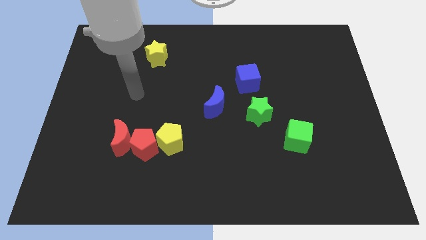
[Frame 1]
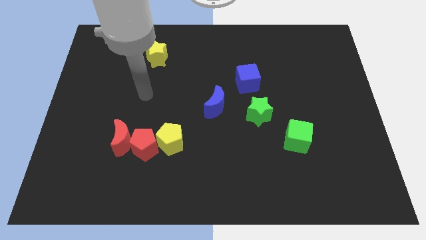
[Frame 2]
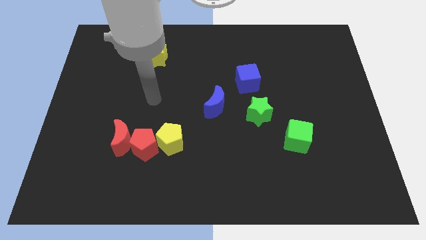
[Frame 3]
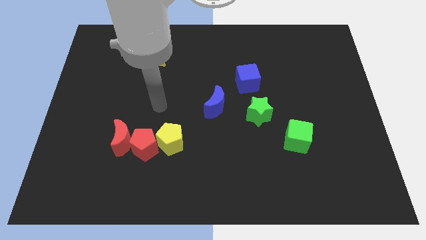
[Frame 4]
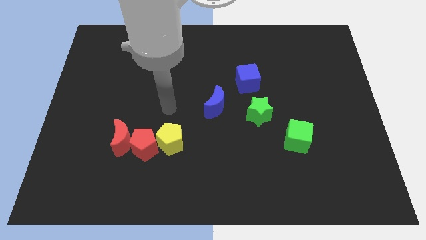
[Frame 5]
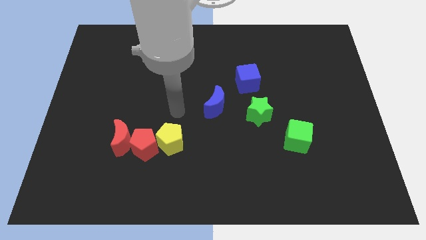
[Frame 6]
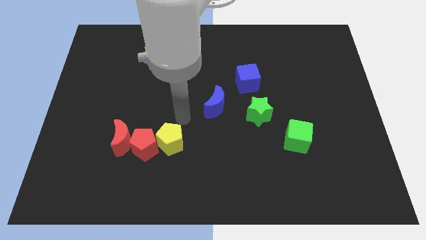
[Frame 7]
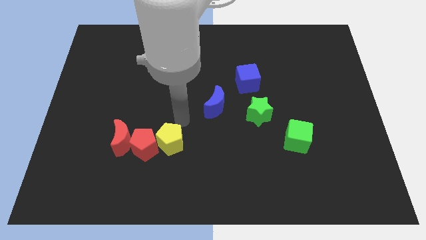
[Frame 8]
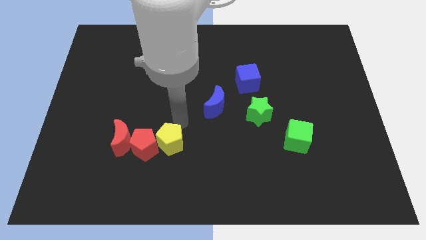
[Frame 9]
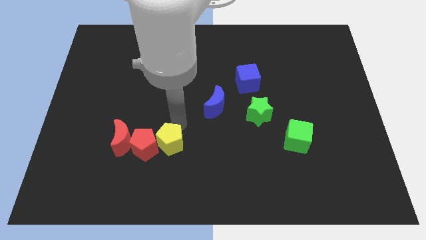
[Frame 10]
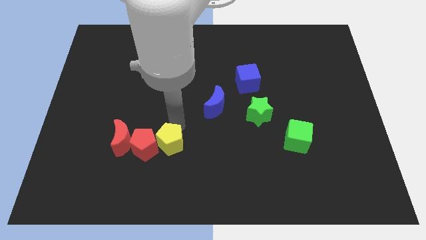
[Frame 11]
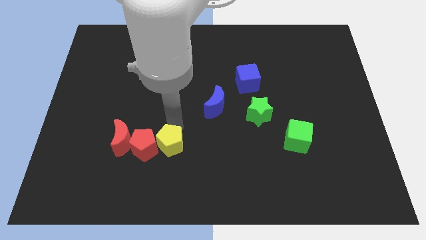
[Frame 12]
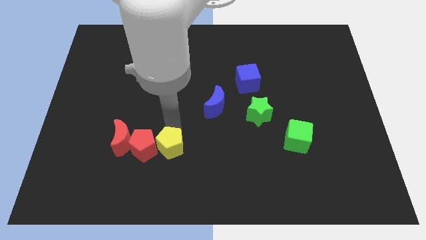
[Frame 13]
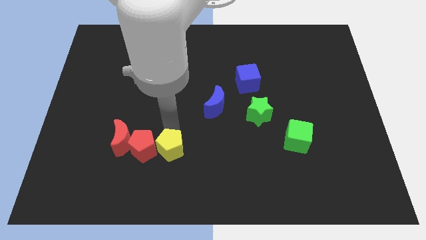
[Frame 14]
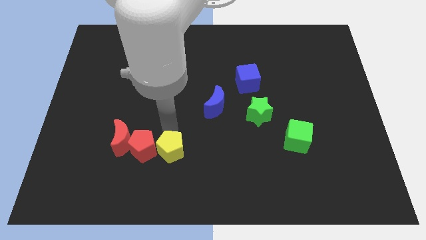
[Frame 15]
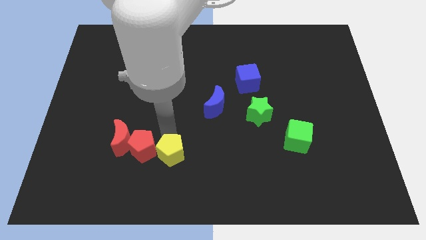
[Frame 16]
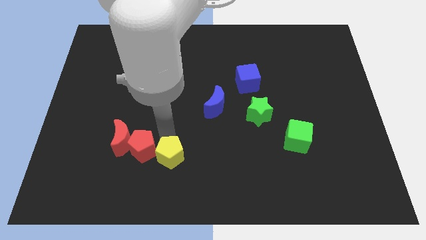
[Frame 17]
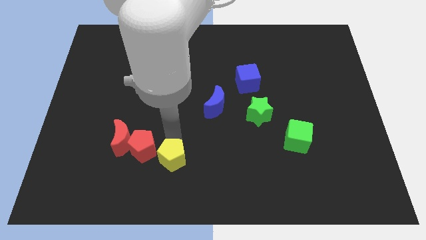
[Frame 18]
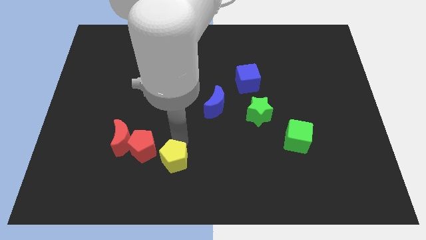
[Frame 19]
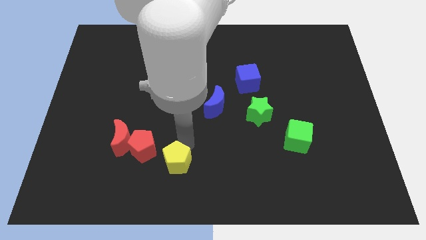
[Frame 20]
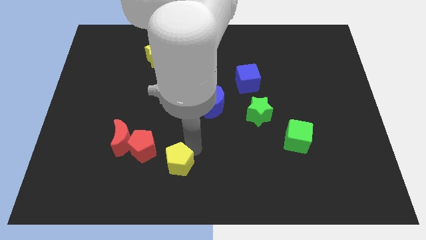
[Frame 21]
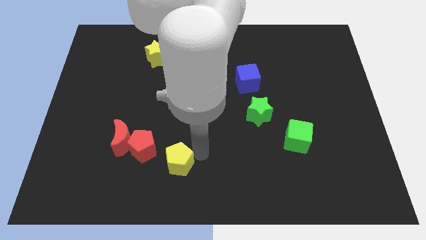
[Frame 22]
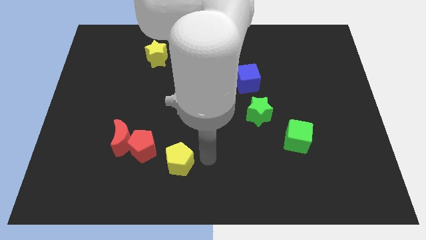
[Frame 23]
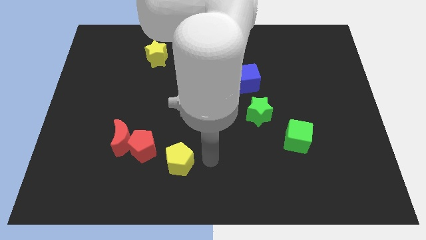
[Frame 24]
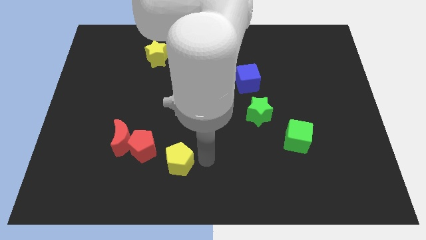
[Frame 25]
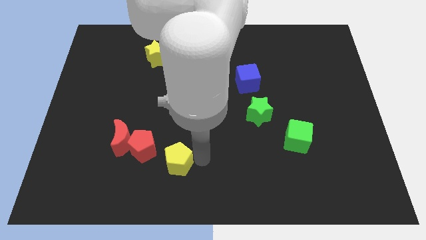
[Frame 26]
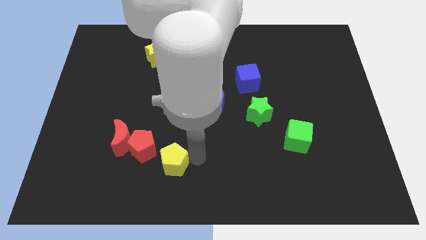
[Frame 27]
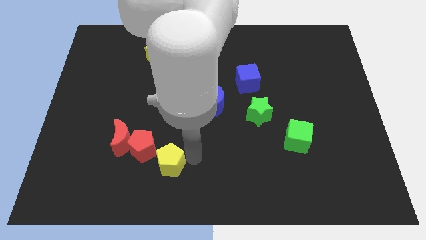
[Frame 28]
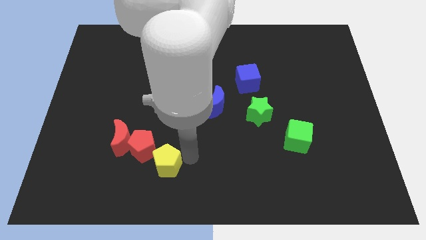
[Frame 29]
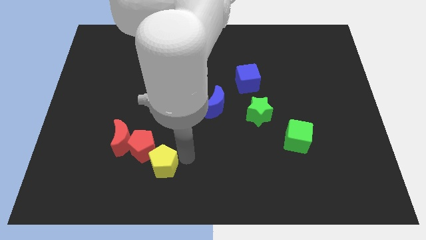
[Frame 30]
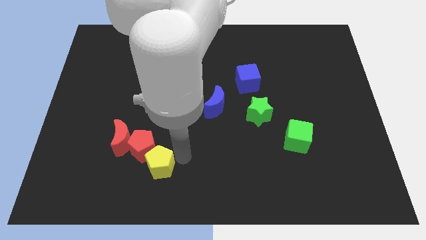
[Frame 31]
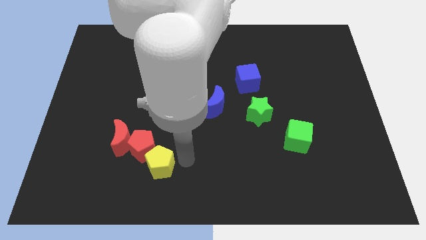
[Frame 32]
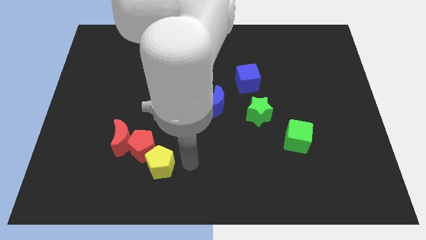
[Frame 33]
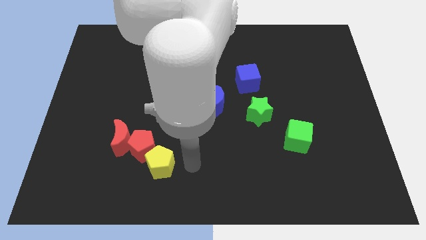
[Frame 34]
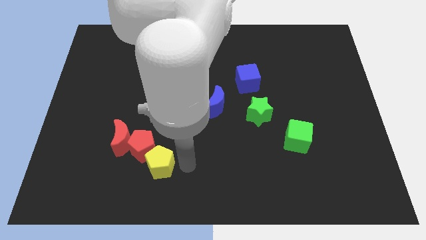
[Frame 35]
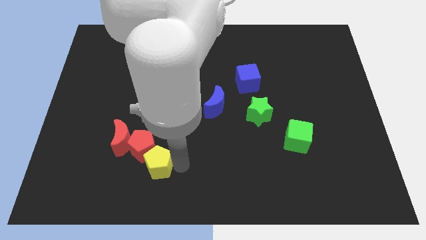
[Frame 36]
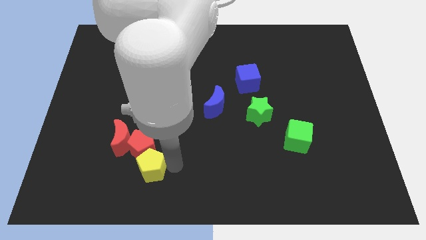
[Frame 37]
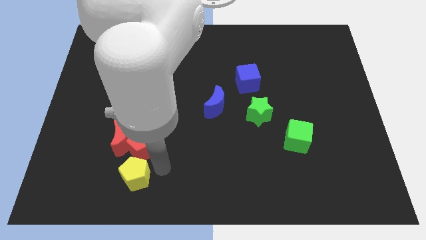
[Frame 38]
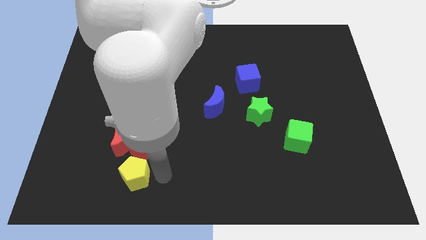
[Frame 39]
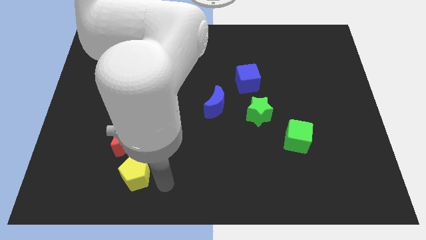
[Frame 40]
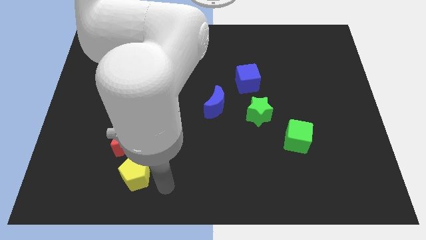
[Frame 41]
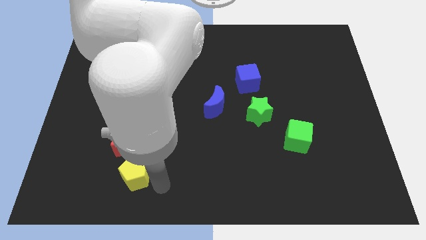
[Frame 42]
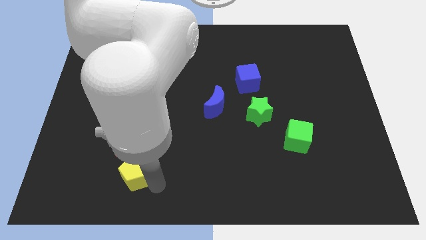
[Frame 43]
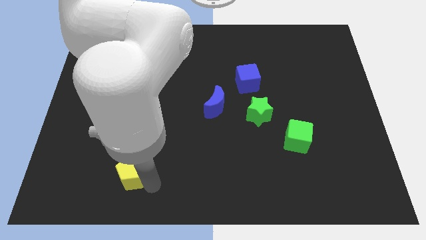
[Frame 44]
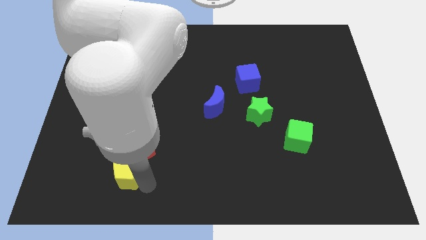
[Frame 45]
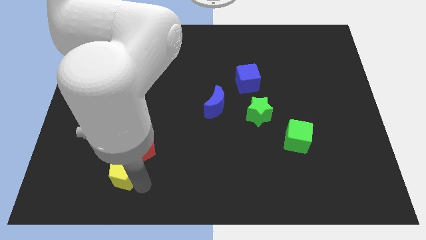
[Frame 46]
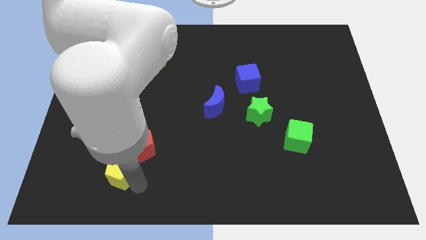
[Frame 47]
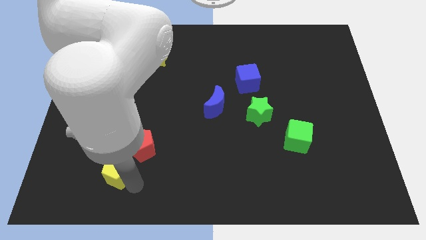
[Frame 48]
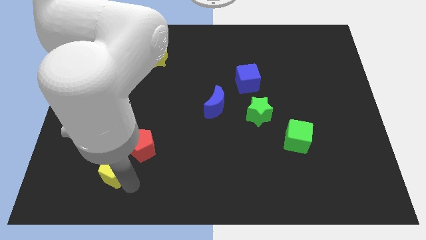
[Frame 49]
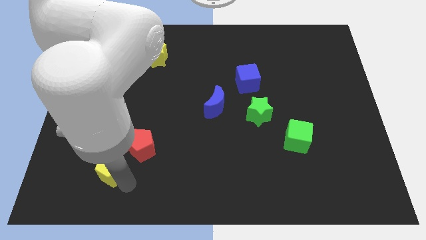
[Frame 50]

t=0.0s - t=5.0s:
slide the yellow pentagon to the bottom left side of the red moon

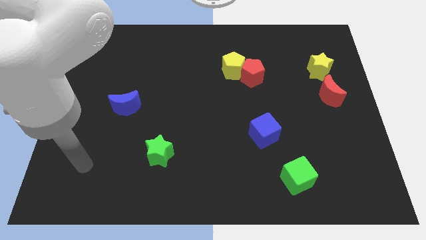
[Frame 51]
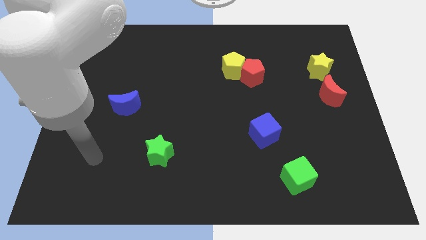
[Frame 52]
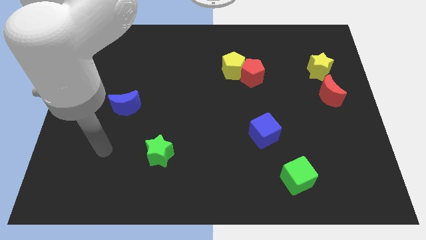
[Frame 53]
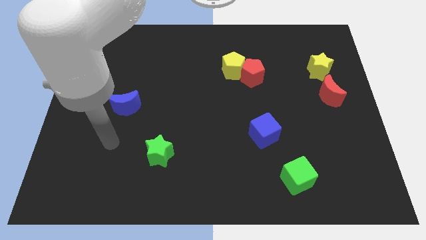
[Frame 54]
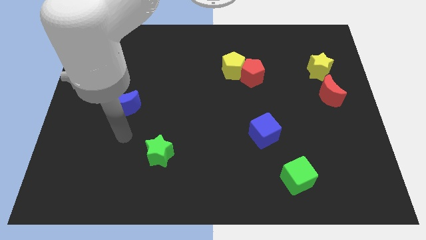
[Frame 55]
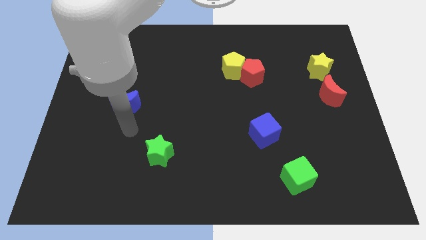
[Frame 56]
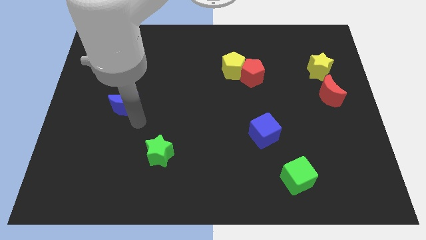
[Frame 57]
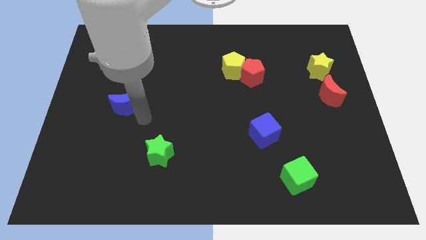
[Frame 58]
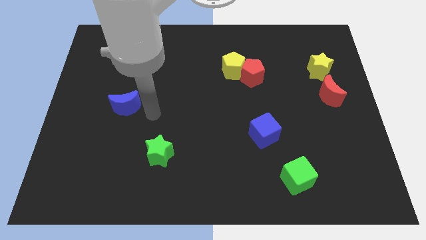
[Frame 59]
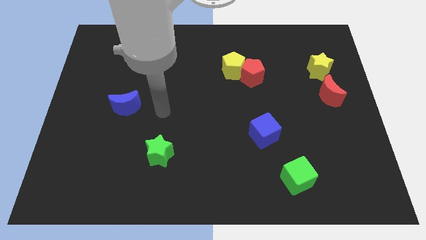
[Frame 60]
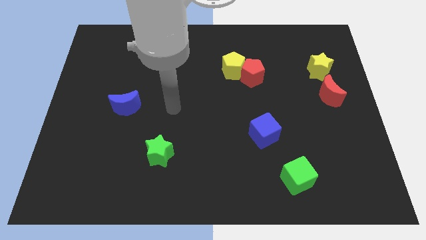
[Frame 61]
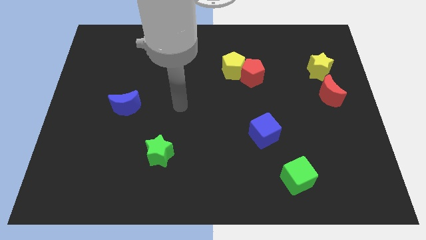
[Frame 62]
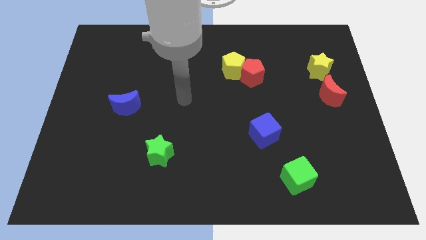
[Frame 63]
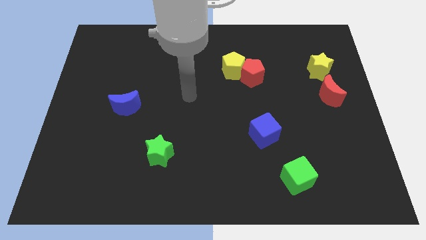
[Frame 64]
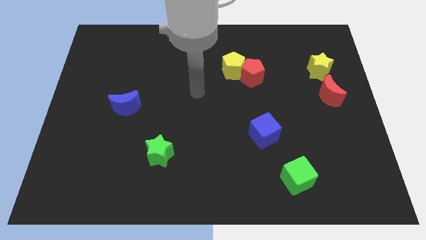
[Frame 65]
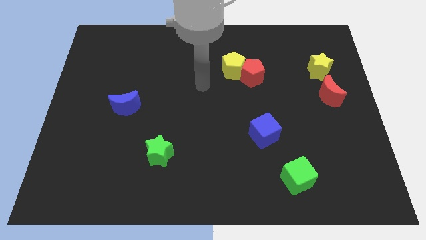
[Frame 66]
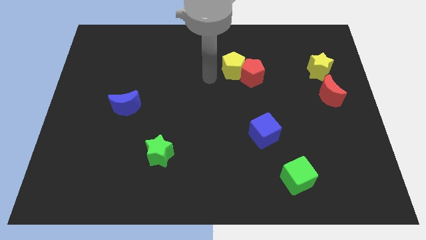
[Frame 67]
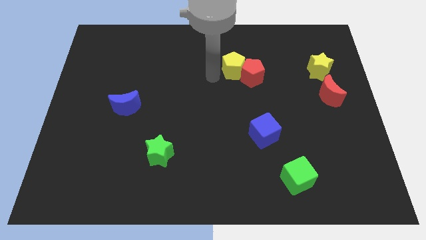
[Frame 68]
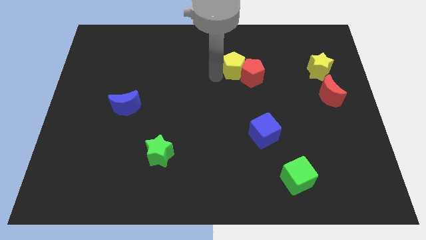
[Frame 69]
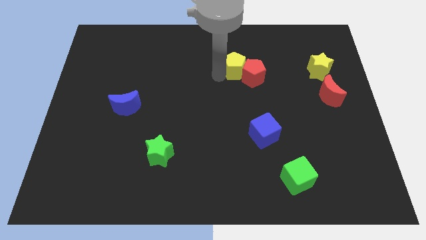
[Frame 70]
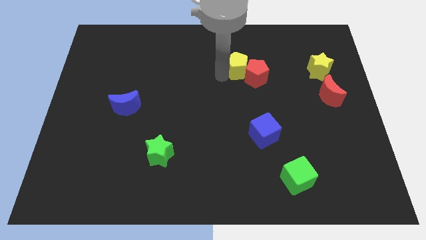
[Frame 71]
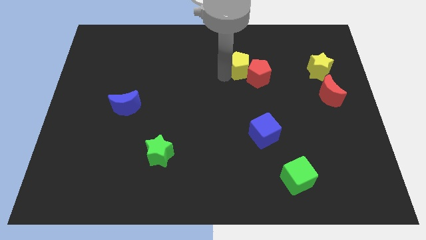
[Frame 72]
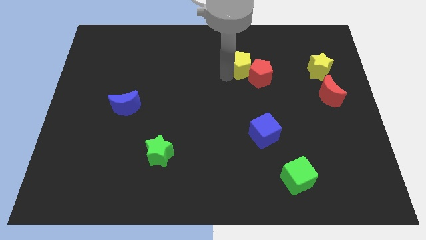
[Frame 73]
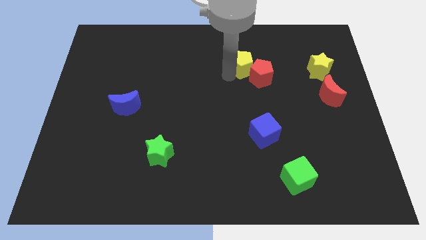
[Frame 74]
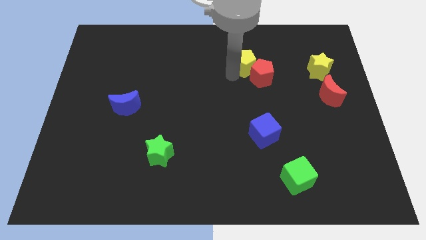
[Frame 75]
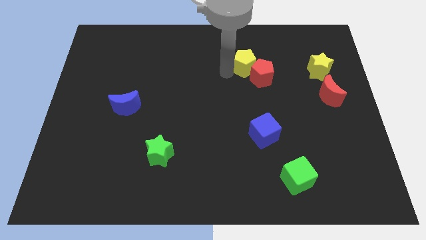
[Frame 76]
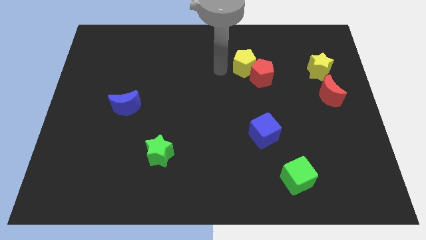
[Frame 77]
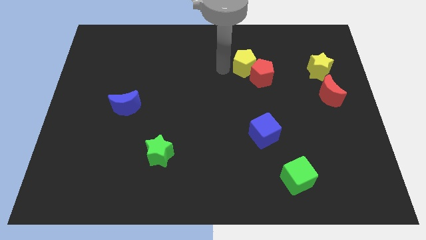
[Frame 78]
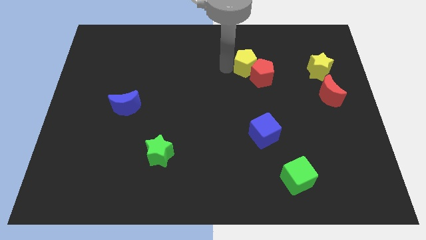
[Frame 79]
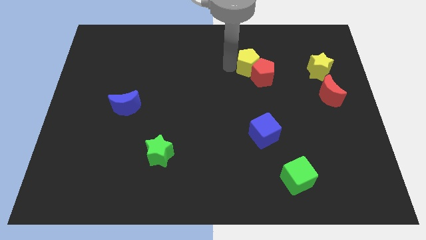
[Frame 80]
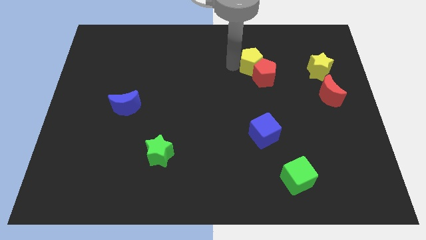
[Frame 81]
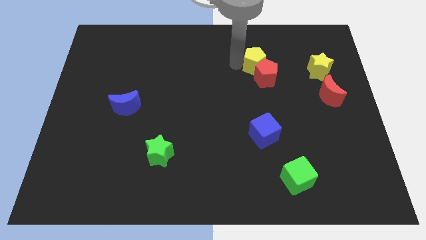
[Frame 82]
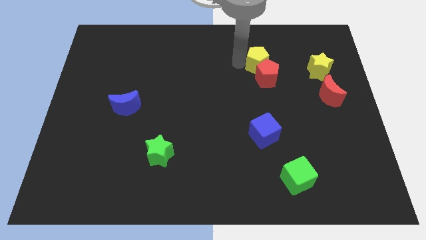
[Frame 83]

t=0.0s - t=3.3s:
push the yellow pentagon to the top right side of the red pentagon
